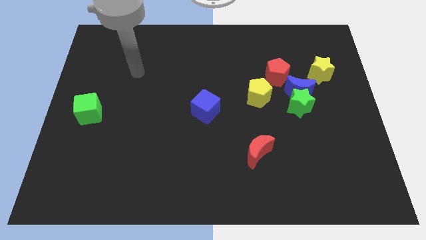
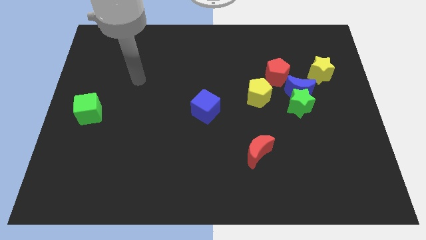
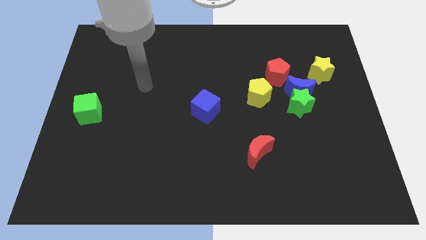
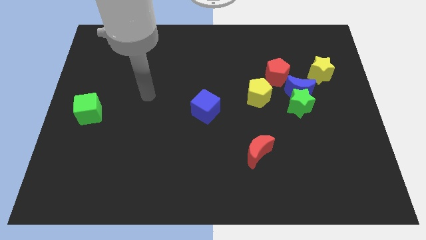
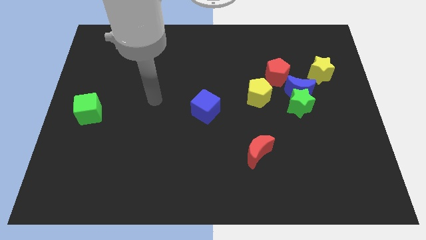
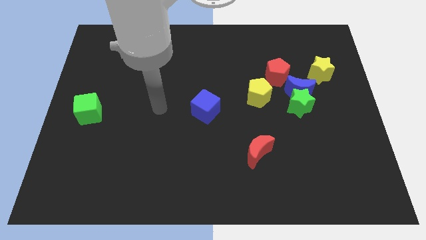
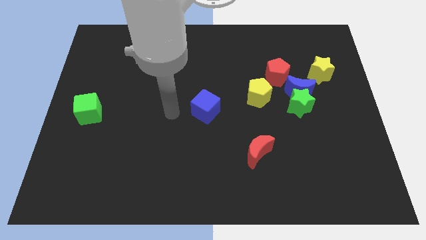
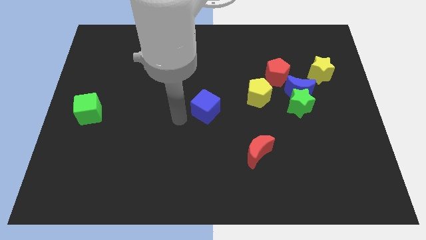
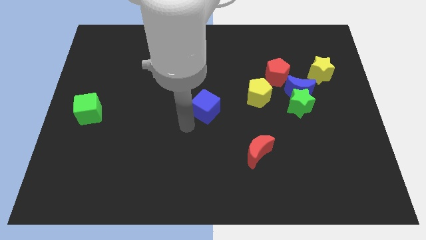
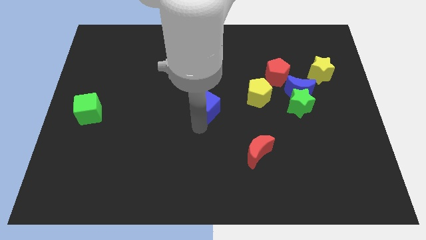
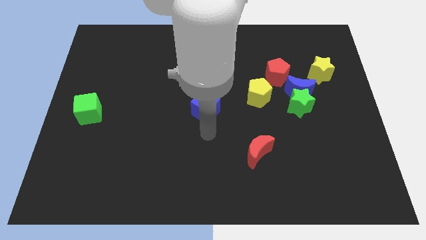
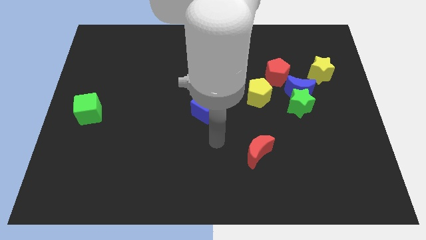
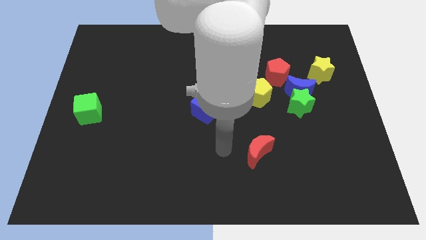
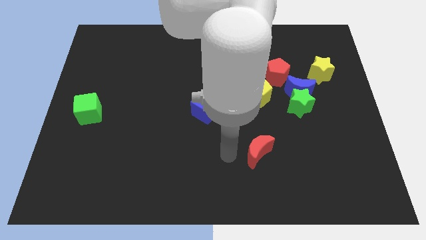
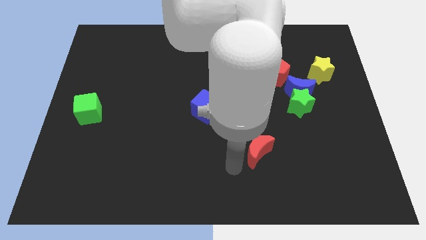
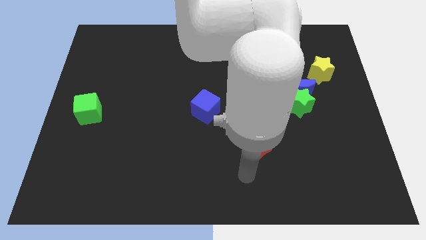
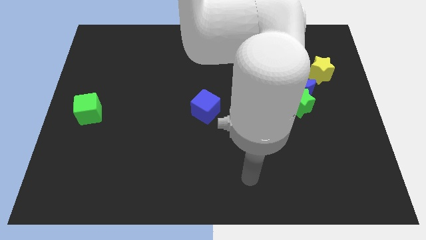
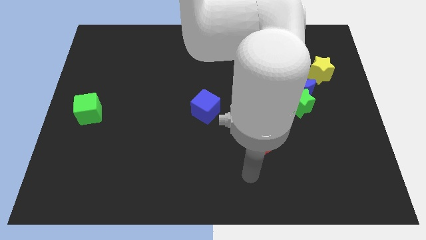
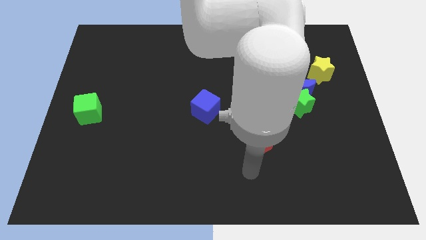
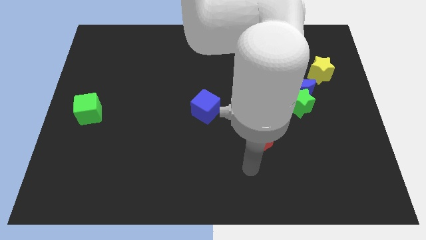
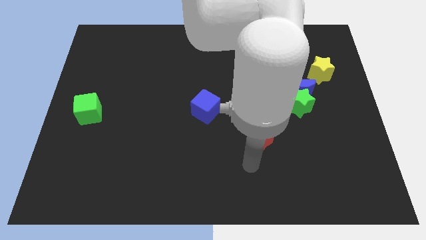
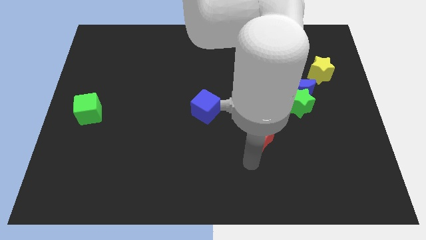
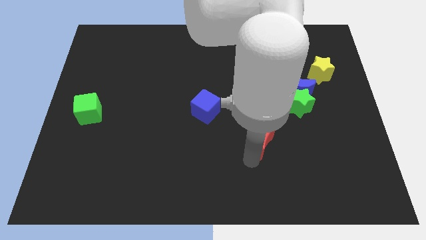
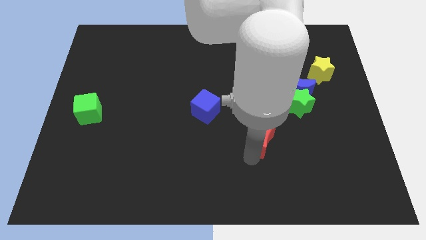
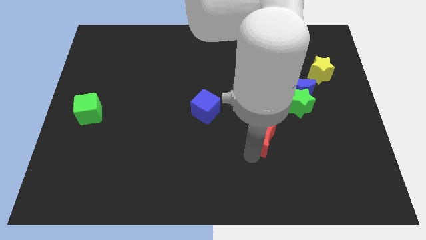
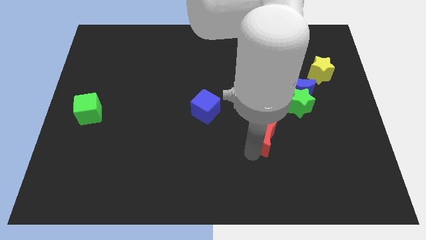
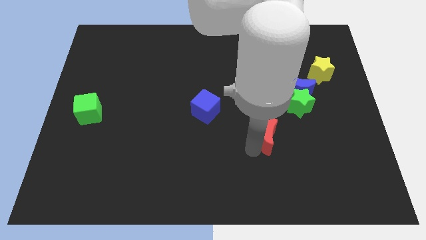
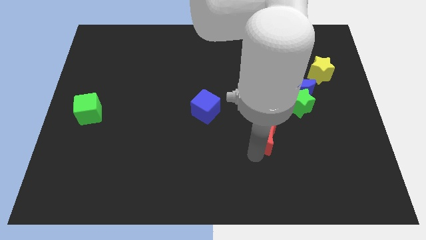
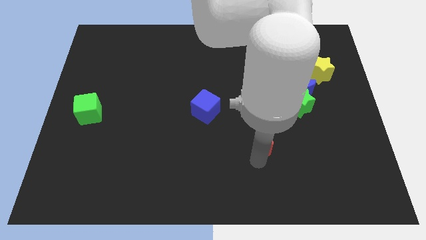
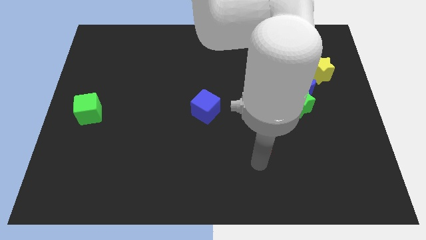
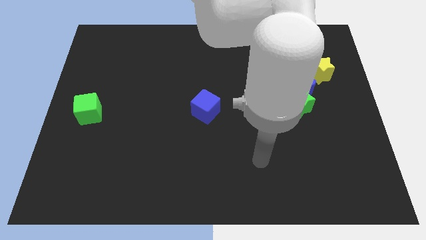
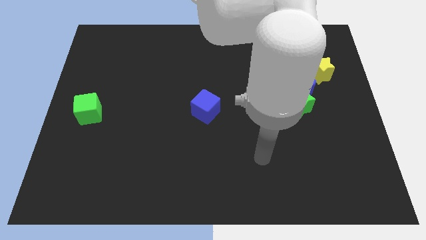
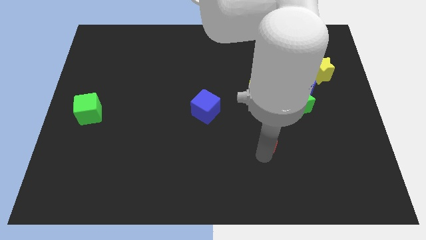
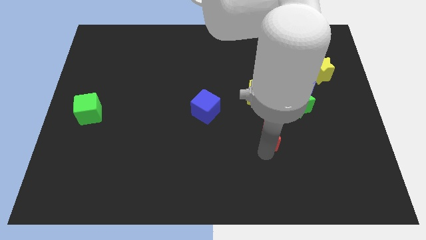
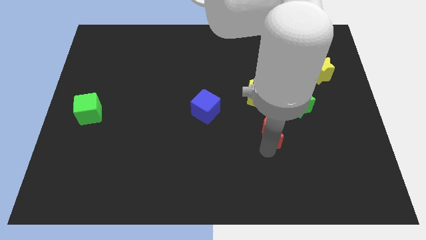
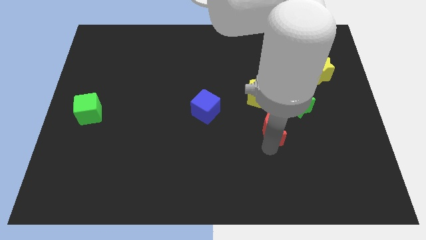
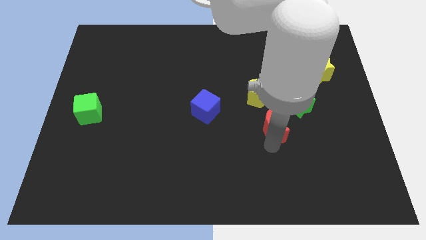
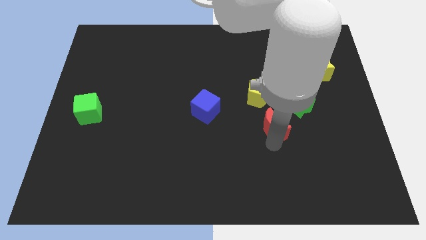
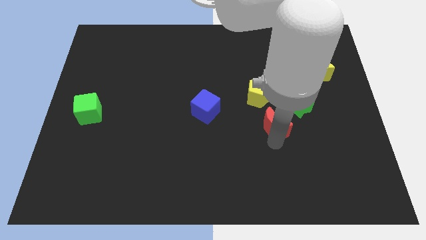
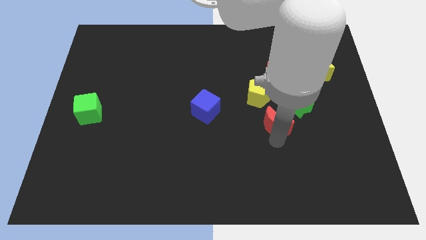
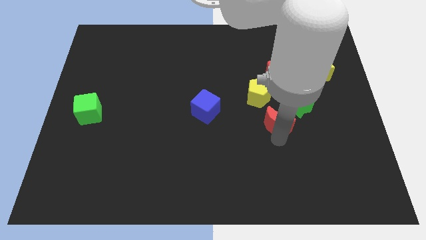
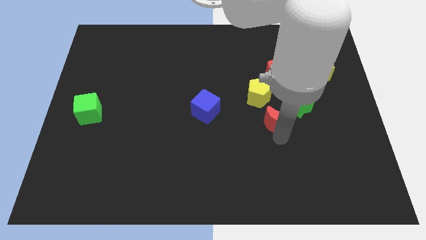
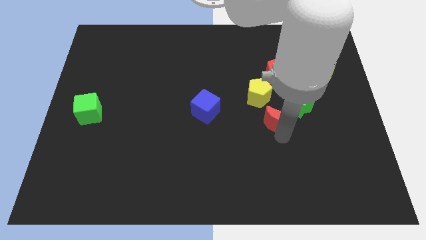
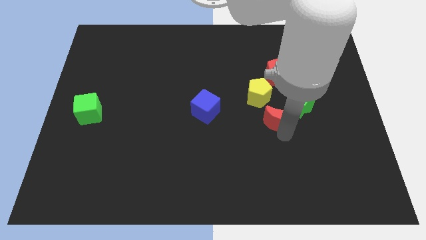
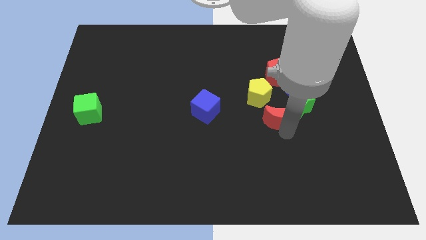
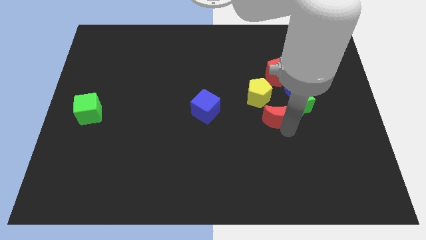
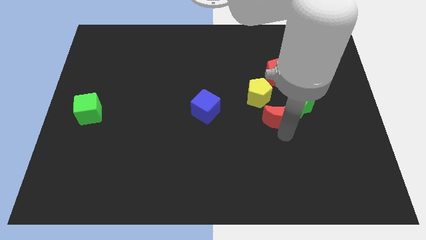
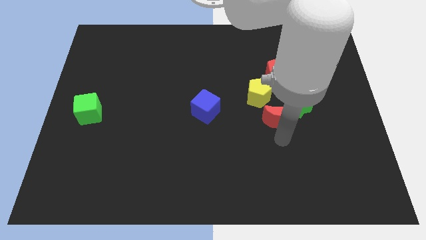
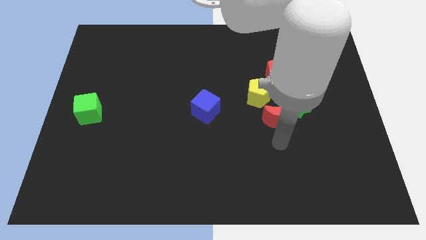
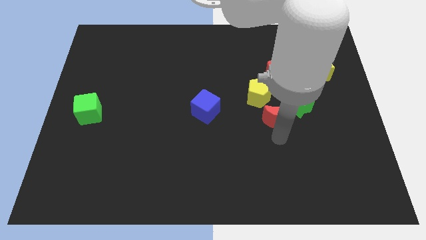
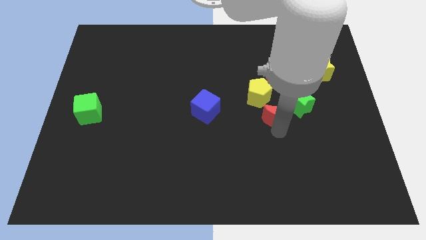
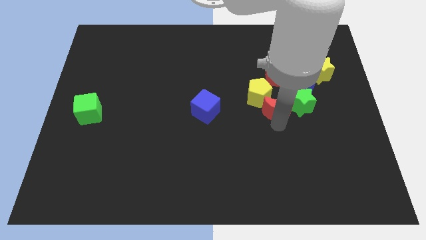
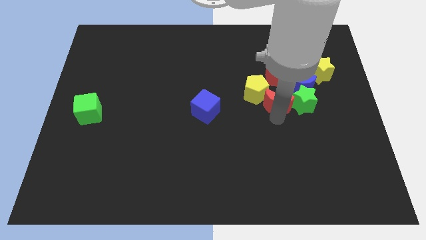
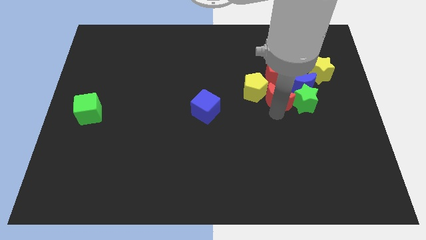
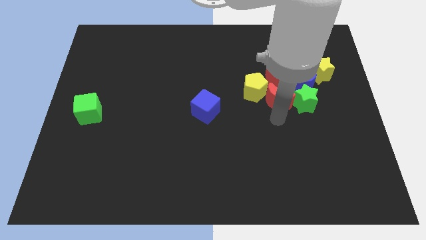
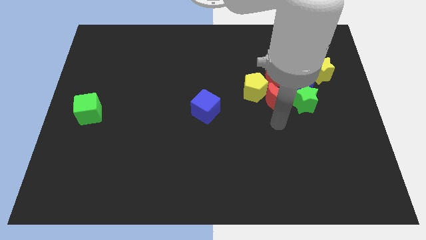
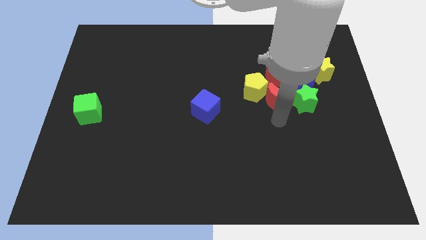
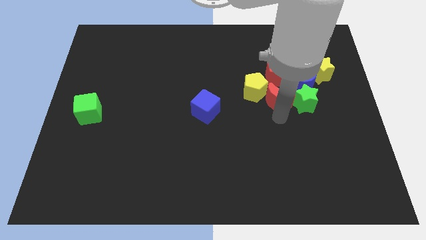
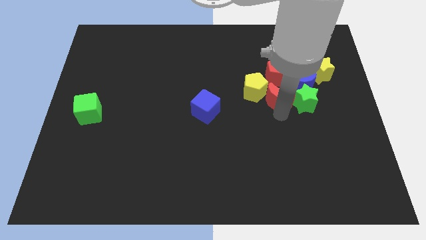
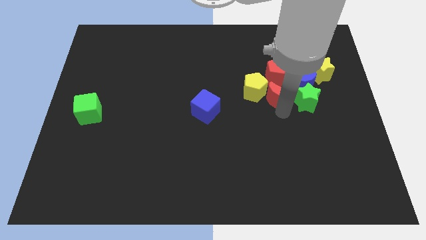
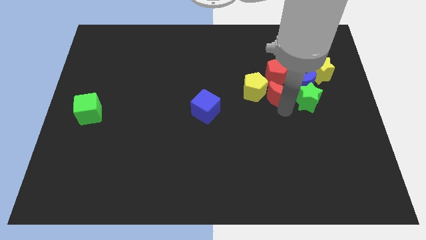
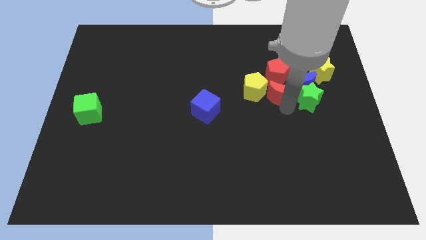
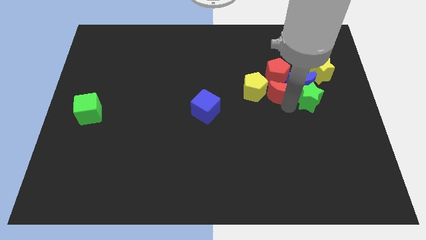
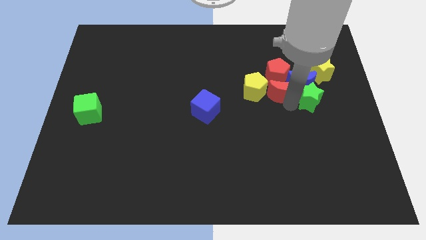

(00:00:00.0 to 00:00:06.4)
push the red moon towards the red pentagon
